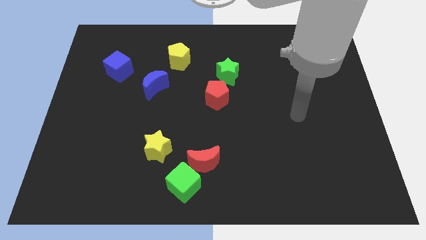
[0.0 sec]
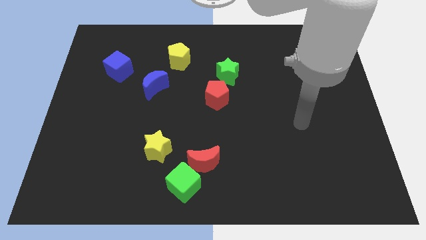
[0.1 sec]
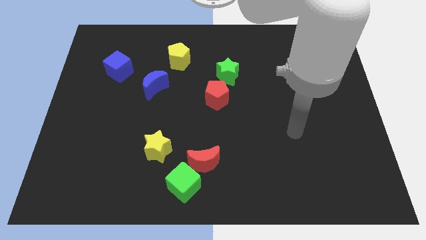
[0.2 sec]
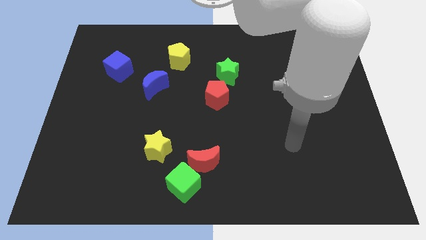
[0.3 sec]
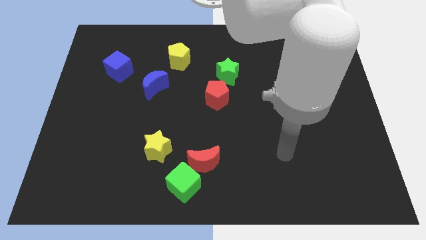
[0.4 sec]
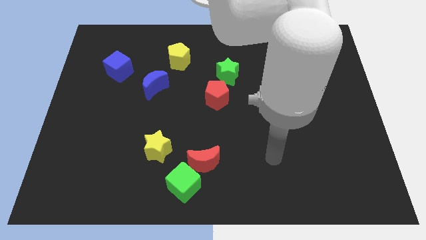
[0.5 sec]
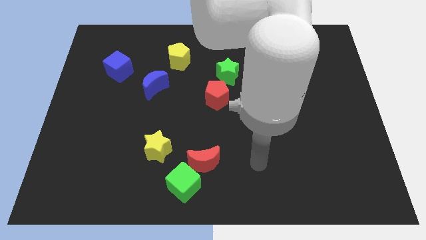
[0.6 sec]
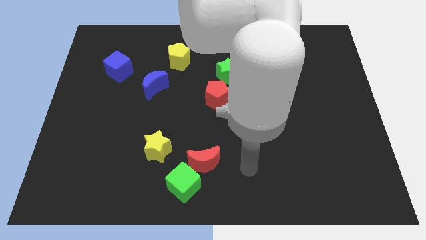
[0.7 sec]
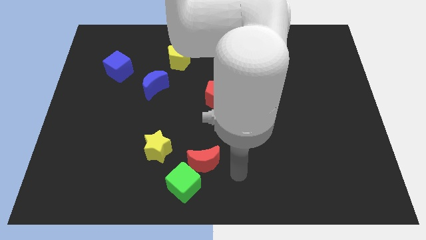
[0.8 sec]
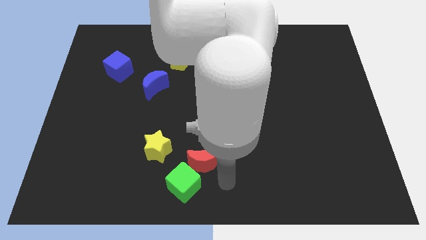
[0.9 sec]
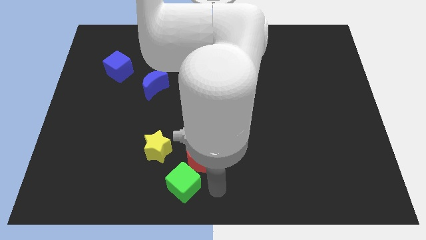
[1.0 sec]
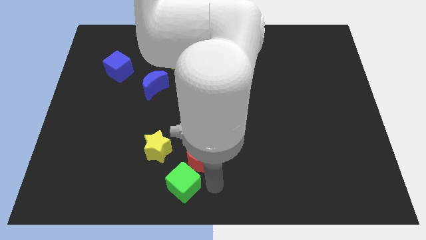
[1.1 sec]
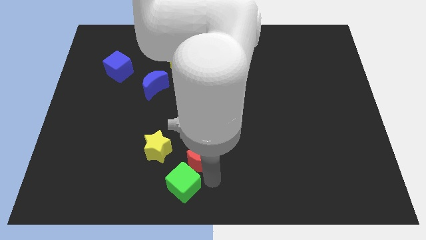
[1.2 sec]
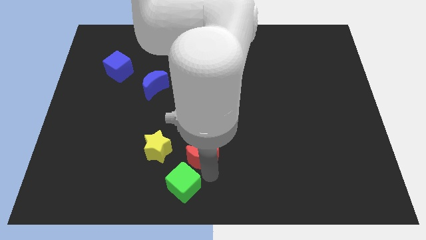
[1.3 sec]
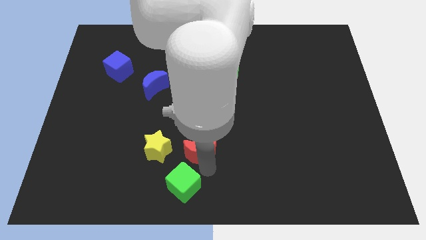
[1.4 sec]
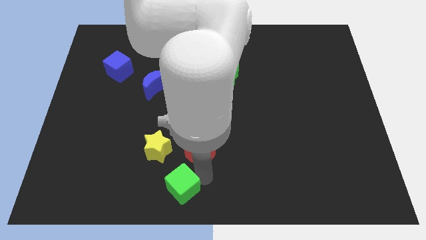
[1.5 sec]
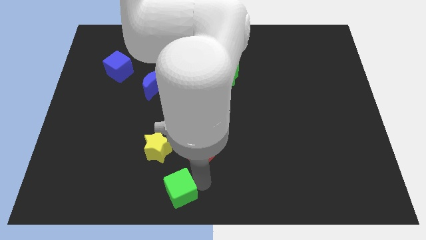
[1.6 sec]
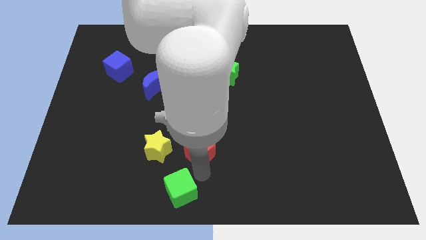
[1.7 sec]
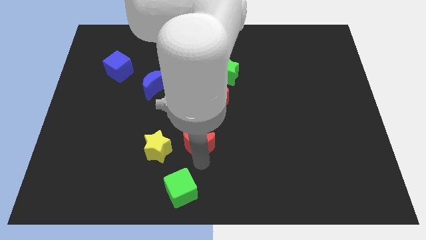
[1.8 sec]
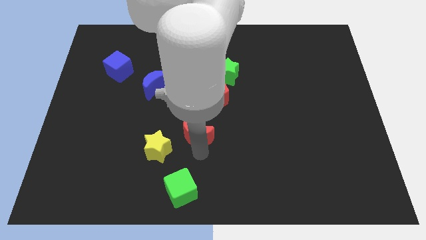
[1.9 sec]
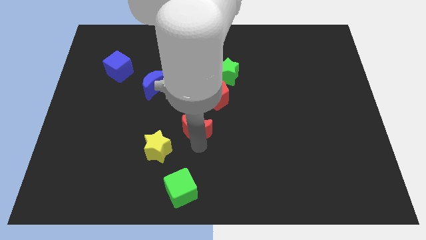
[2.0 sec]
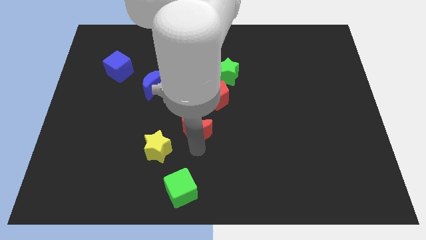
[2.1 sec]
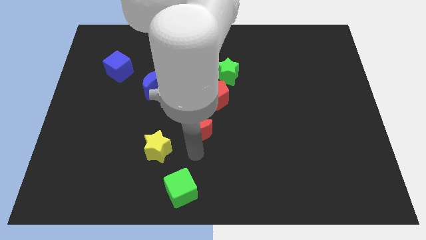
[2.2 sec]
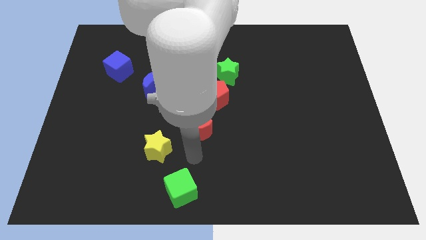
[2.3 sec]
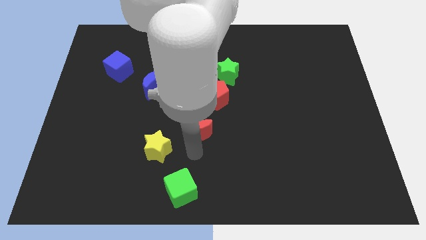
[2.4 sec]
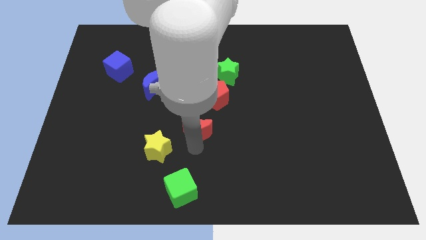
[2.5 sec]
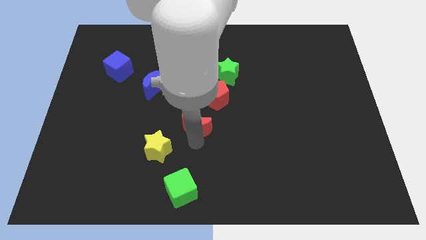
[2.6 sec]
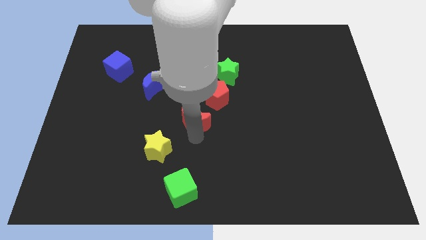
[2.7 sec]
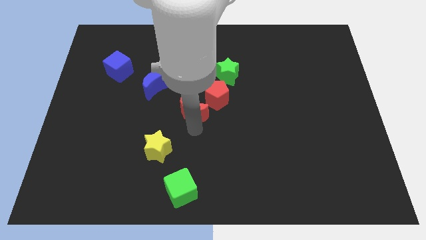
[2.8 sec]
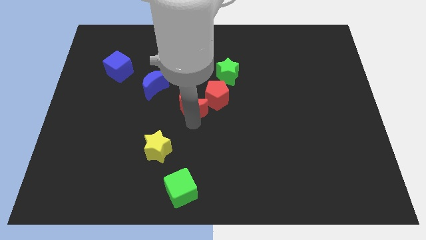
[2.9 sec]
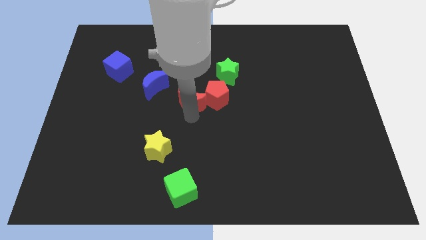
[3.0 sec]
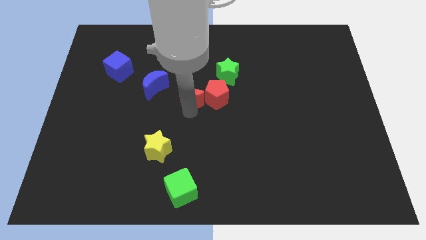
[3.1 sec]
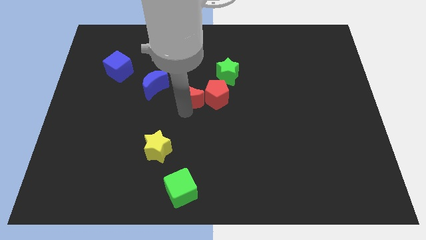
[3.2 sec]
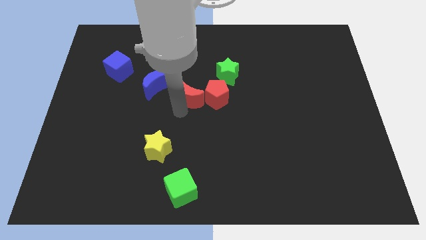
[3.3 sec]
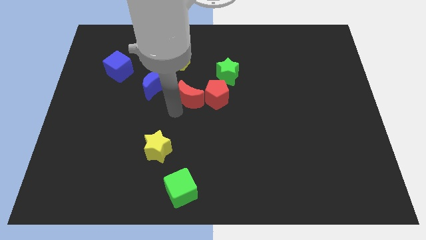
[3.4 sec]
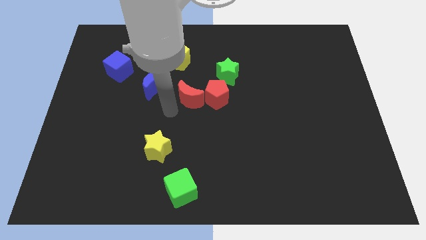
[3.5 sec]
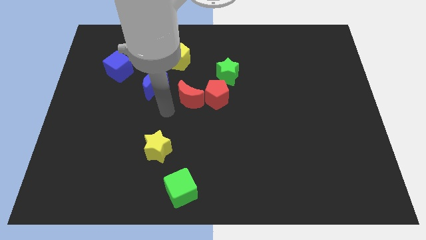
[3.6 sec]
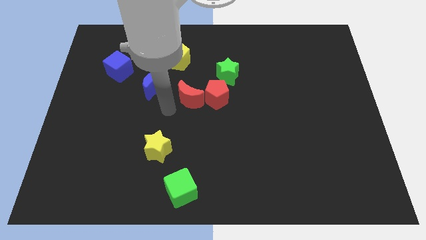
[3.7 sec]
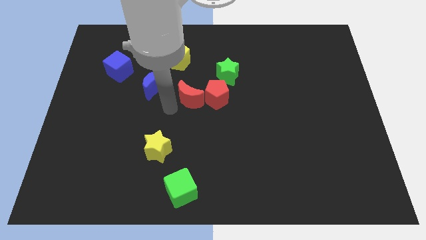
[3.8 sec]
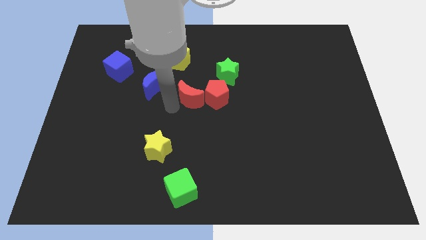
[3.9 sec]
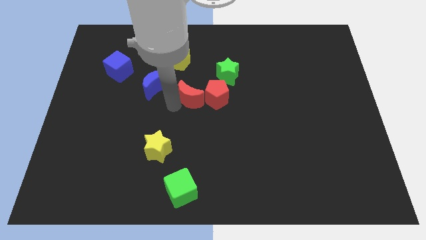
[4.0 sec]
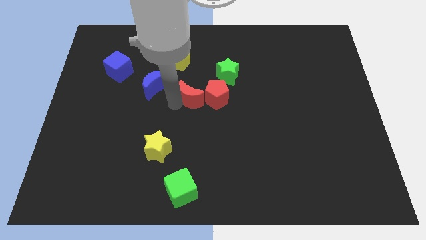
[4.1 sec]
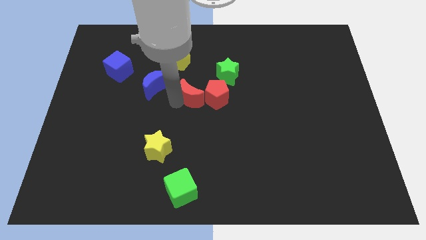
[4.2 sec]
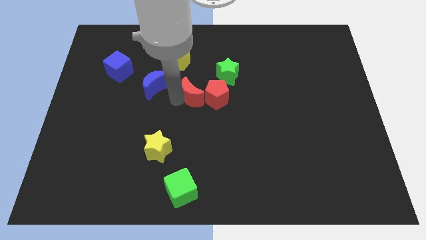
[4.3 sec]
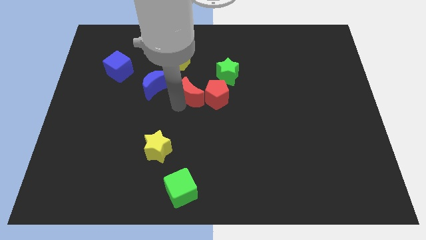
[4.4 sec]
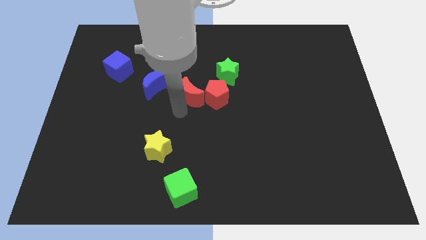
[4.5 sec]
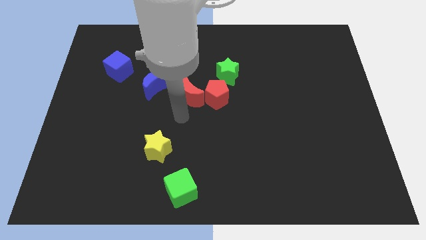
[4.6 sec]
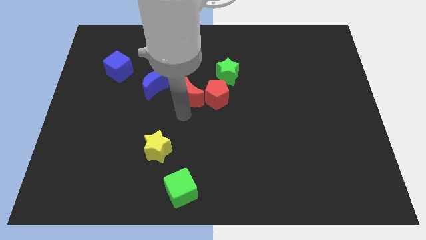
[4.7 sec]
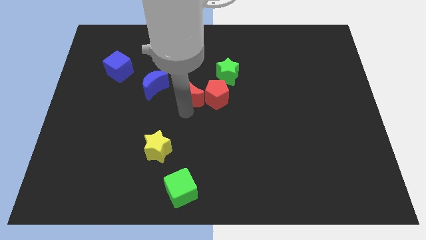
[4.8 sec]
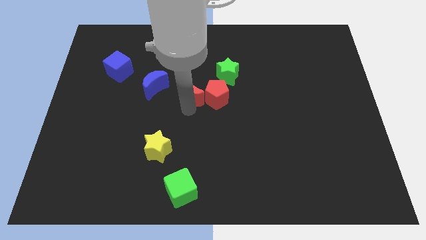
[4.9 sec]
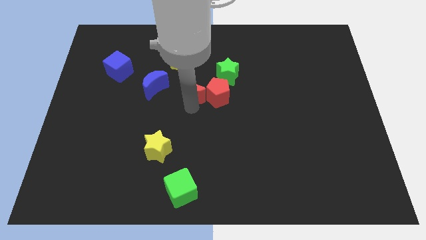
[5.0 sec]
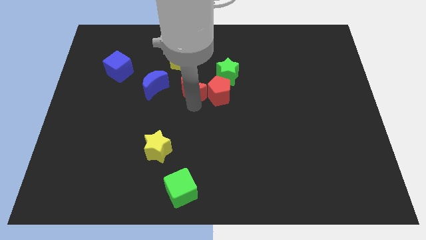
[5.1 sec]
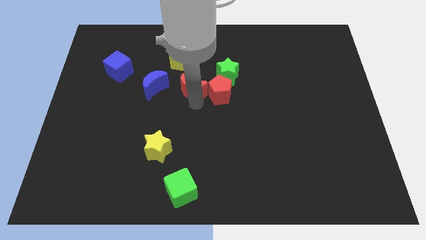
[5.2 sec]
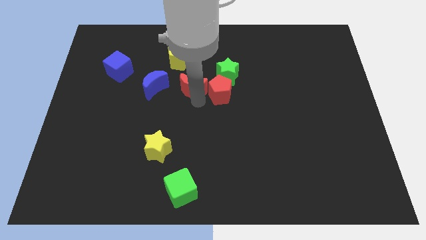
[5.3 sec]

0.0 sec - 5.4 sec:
slide the red moon upwards

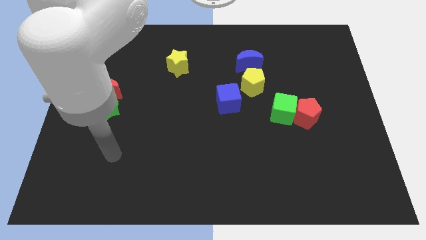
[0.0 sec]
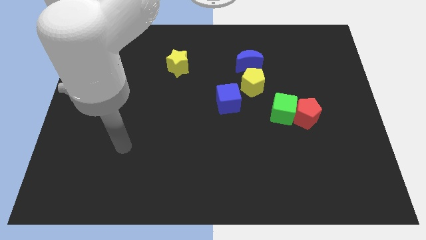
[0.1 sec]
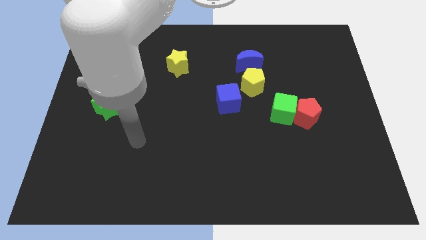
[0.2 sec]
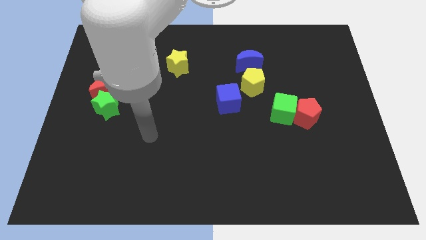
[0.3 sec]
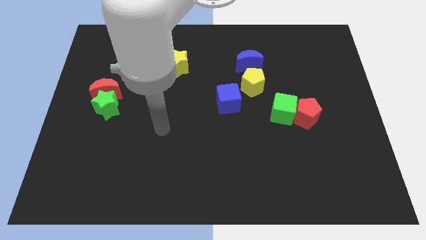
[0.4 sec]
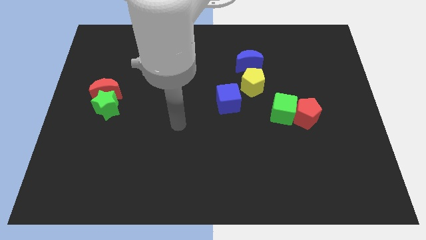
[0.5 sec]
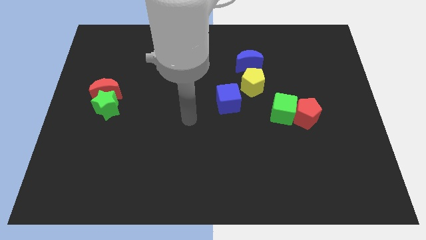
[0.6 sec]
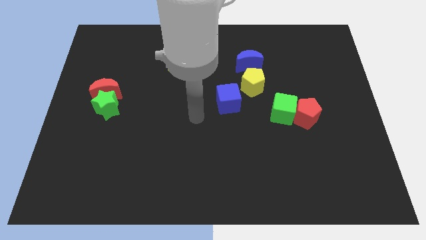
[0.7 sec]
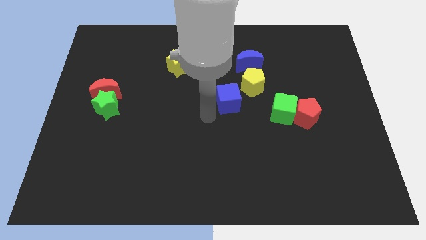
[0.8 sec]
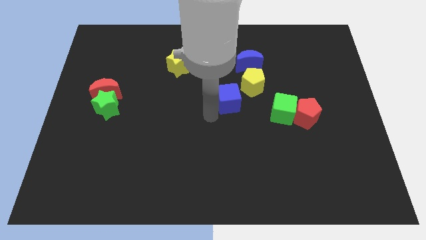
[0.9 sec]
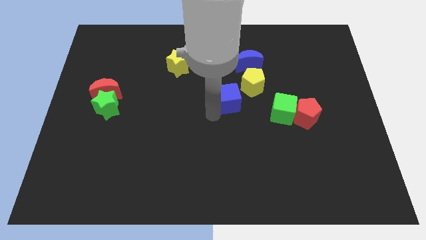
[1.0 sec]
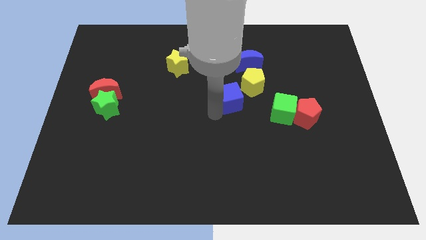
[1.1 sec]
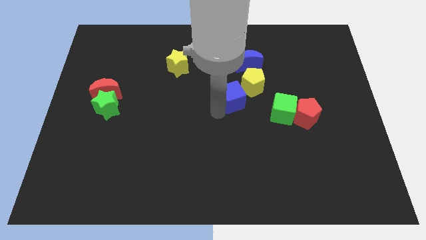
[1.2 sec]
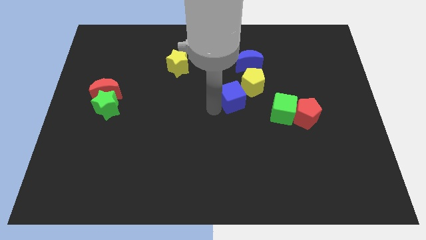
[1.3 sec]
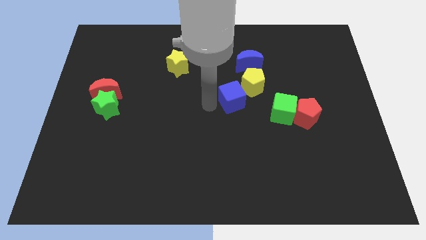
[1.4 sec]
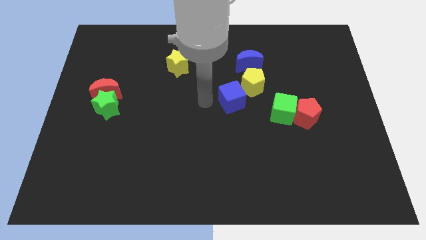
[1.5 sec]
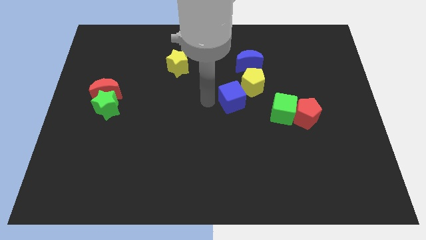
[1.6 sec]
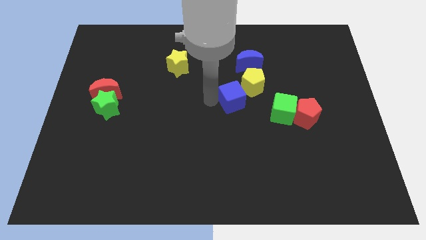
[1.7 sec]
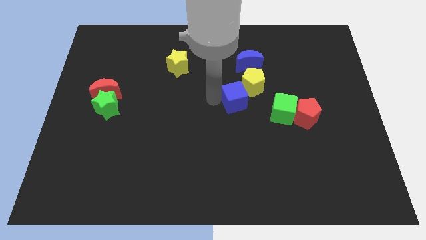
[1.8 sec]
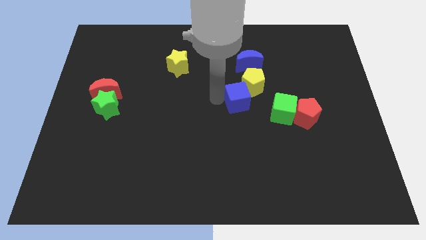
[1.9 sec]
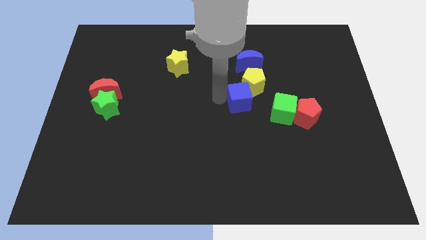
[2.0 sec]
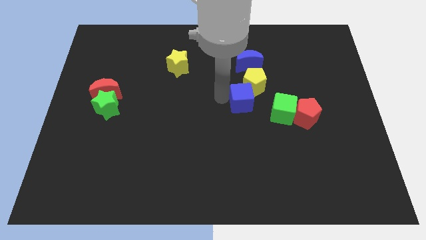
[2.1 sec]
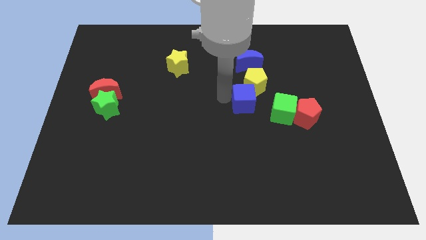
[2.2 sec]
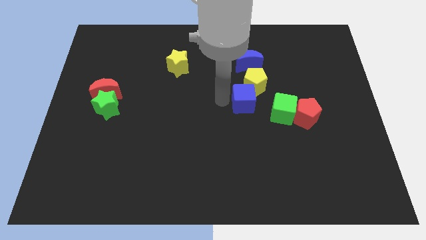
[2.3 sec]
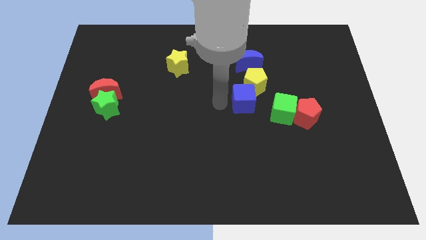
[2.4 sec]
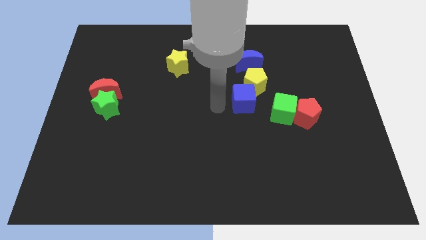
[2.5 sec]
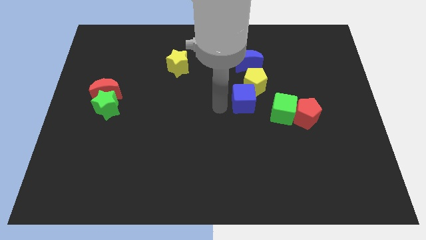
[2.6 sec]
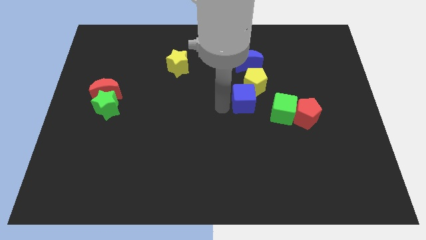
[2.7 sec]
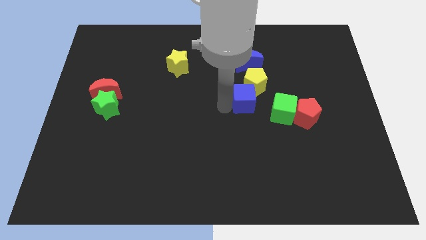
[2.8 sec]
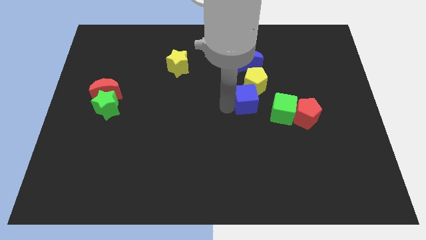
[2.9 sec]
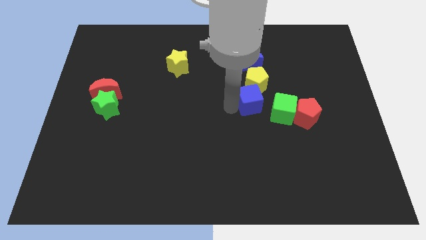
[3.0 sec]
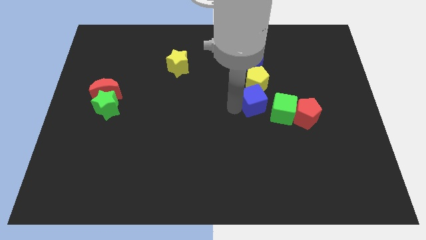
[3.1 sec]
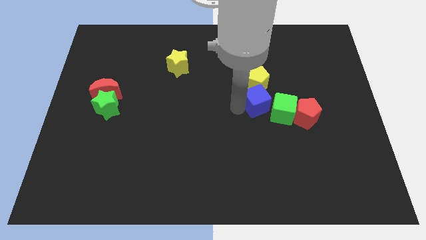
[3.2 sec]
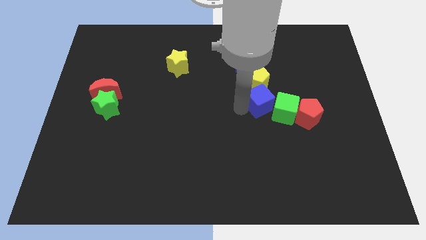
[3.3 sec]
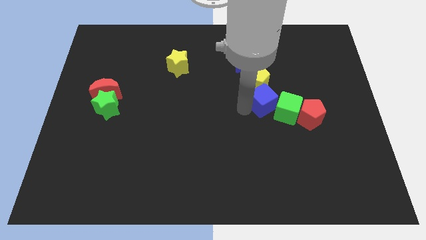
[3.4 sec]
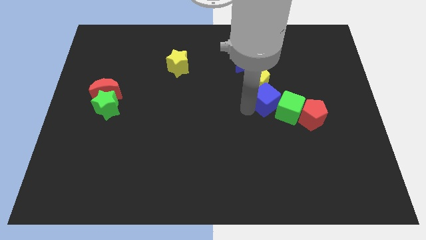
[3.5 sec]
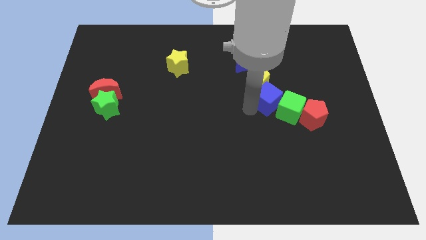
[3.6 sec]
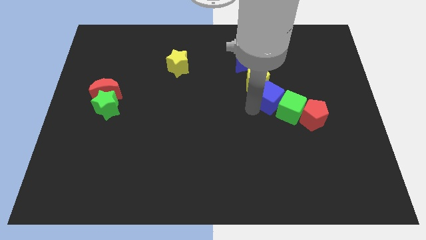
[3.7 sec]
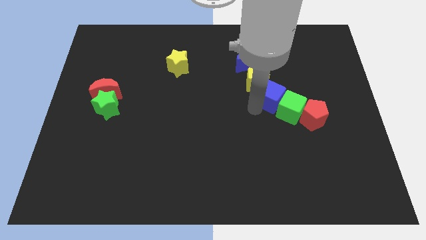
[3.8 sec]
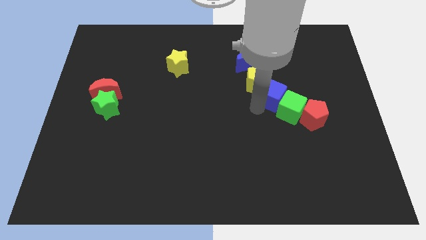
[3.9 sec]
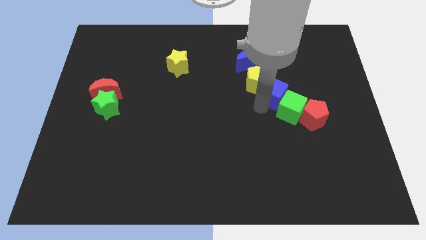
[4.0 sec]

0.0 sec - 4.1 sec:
slightly move the blue cube up and then right
